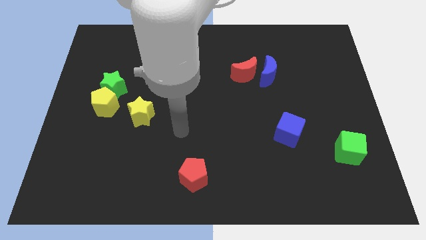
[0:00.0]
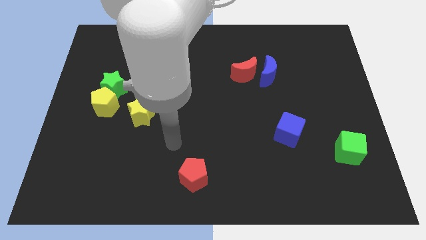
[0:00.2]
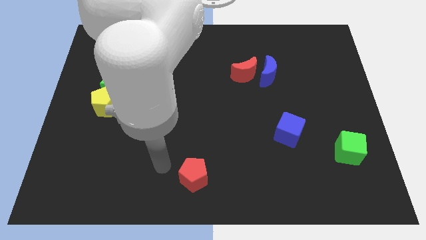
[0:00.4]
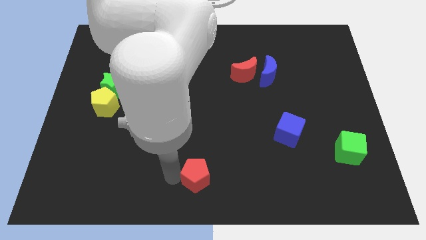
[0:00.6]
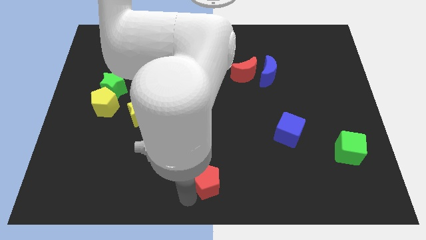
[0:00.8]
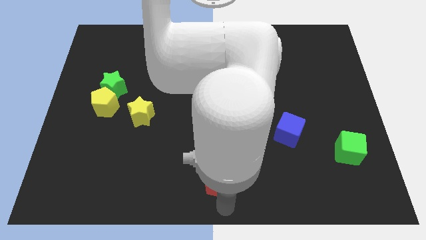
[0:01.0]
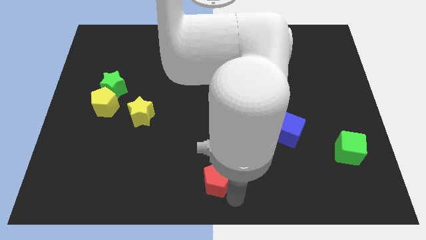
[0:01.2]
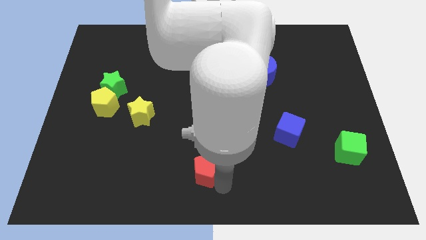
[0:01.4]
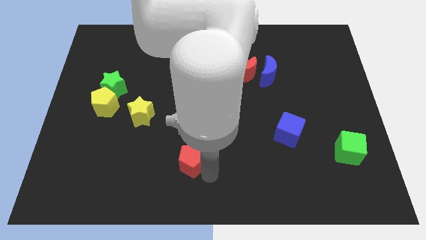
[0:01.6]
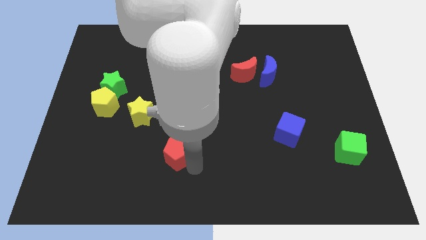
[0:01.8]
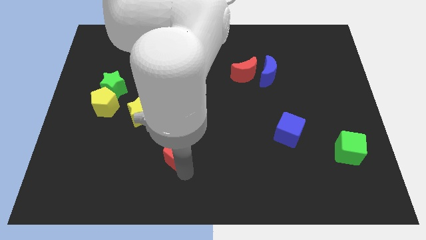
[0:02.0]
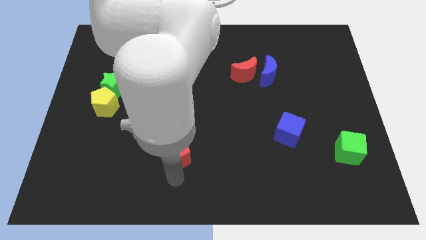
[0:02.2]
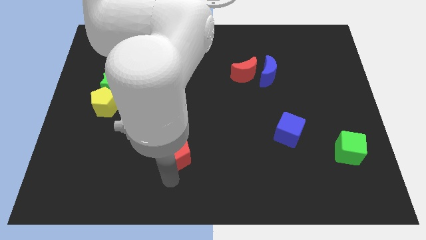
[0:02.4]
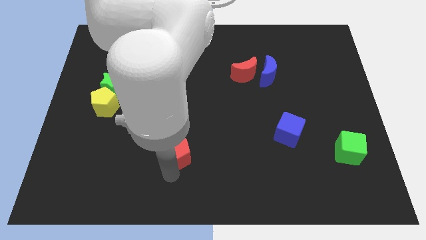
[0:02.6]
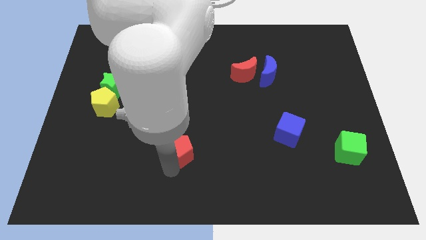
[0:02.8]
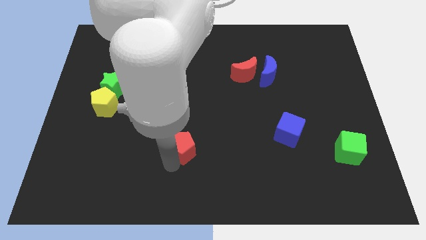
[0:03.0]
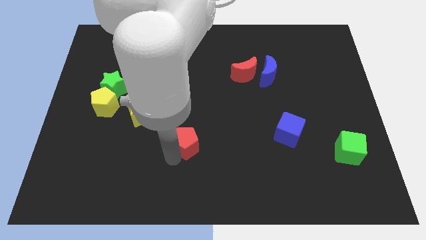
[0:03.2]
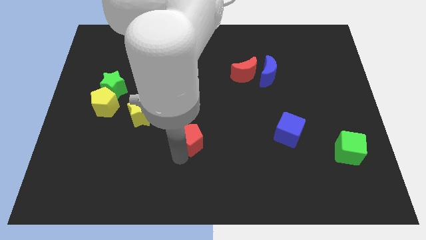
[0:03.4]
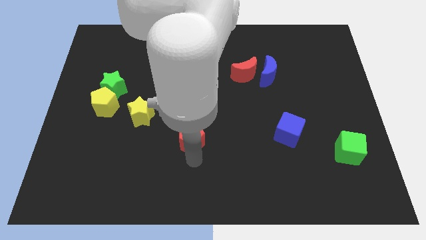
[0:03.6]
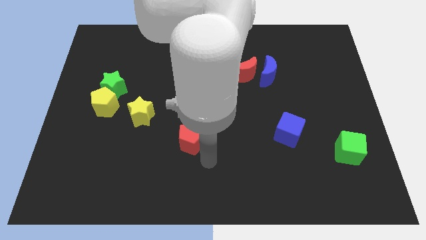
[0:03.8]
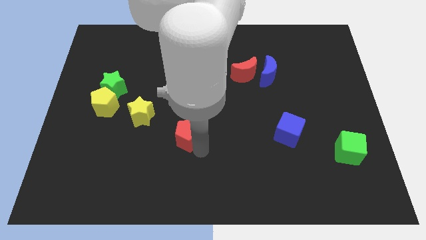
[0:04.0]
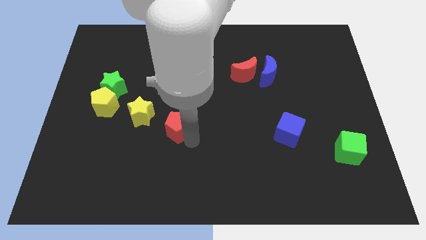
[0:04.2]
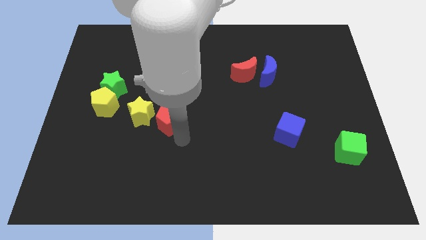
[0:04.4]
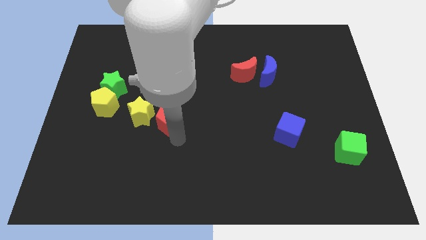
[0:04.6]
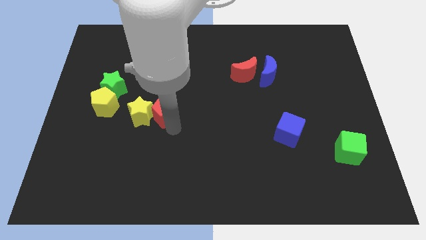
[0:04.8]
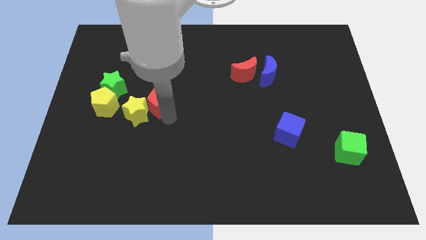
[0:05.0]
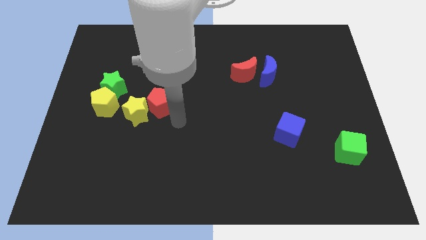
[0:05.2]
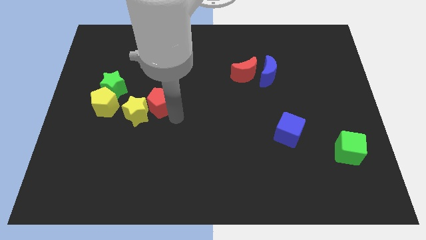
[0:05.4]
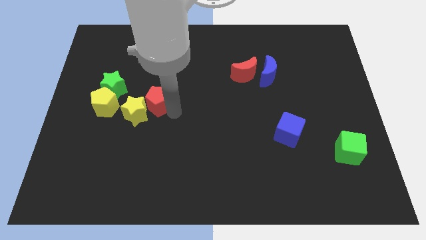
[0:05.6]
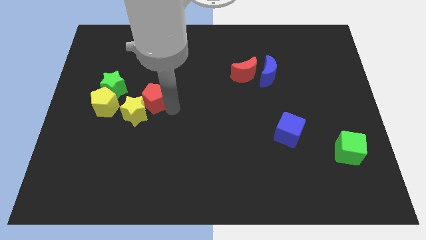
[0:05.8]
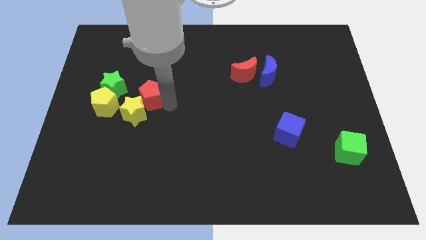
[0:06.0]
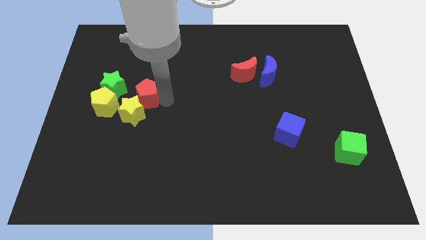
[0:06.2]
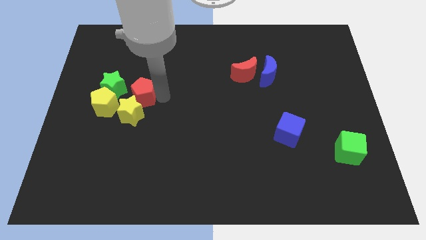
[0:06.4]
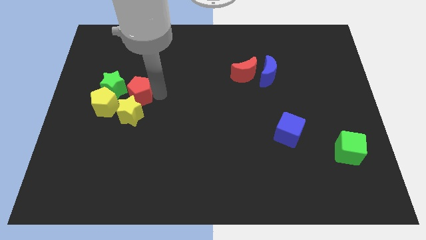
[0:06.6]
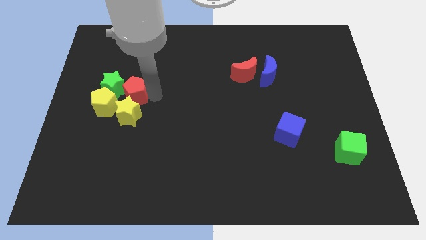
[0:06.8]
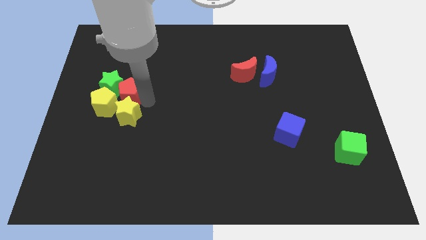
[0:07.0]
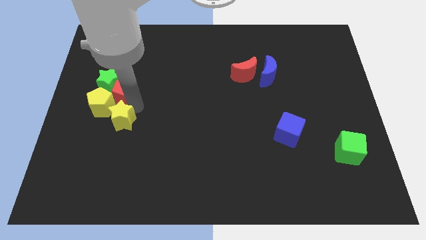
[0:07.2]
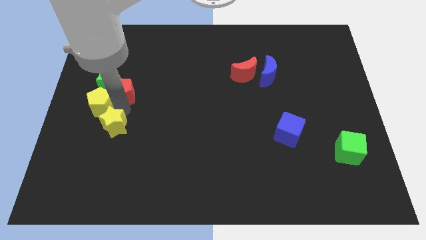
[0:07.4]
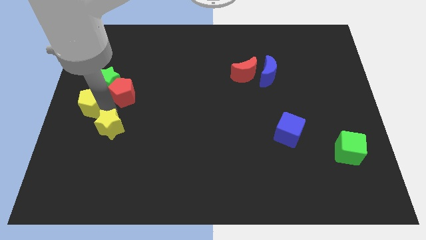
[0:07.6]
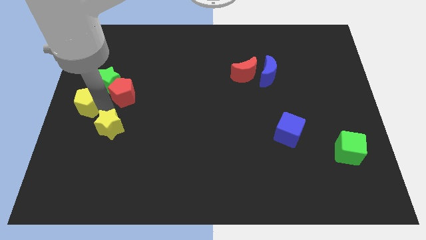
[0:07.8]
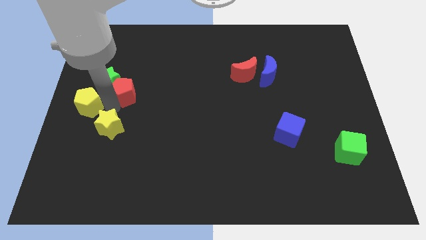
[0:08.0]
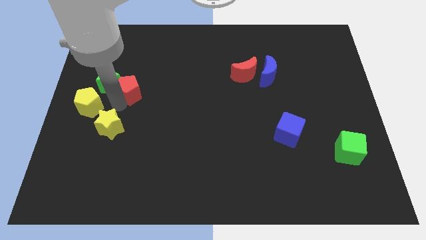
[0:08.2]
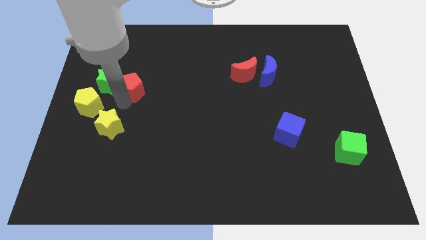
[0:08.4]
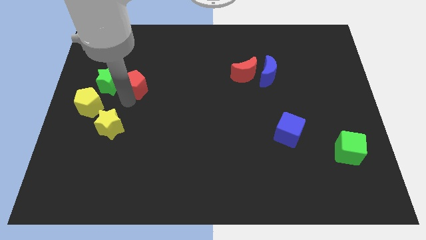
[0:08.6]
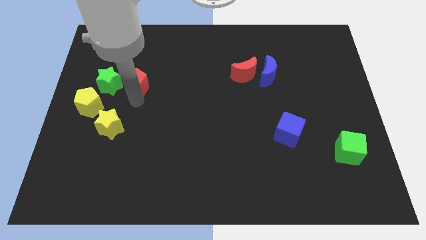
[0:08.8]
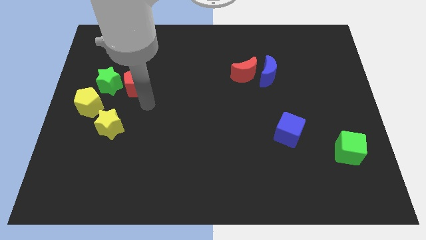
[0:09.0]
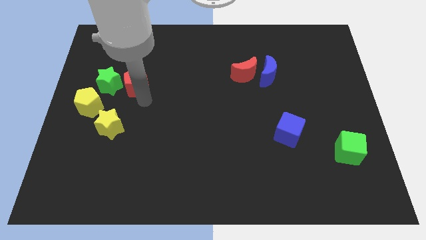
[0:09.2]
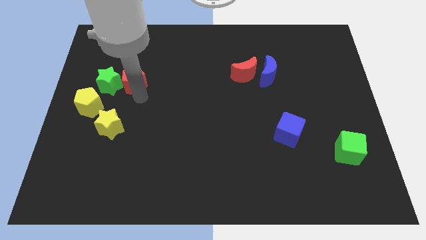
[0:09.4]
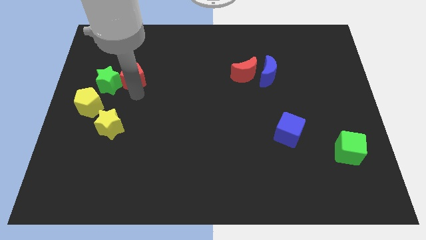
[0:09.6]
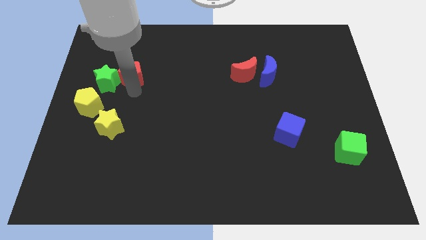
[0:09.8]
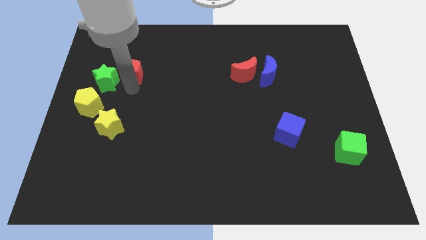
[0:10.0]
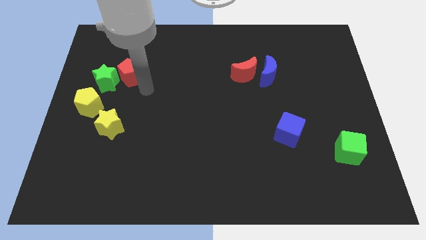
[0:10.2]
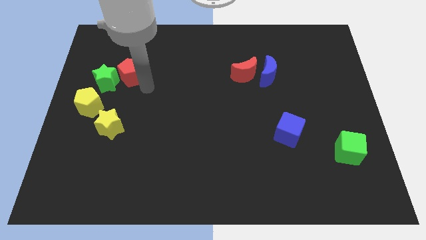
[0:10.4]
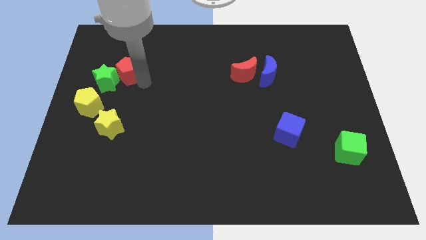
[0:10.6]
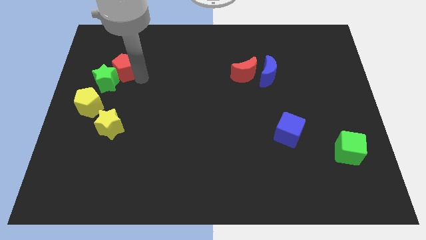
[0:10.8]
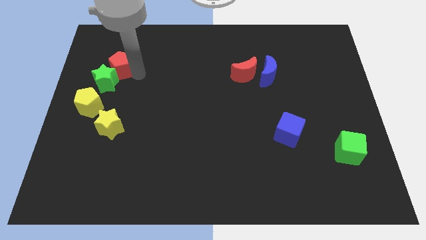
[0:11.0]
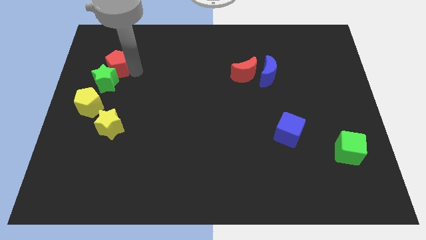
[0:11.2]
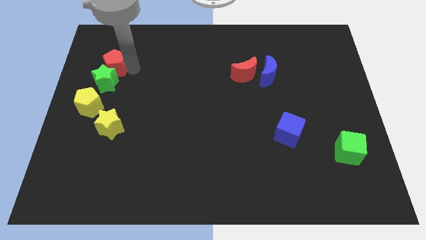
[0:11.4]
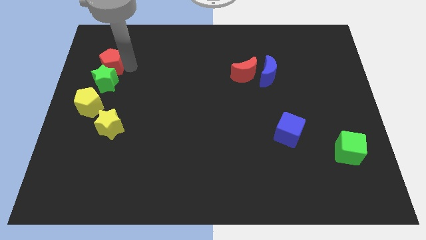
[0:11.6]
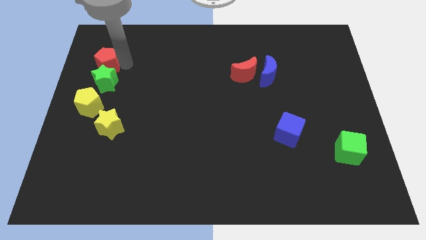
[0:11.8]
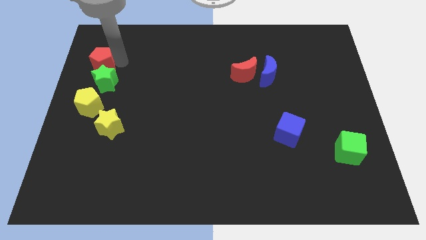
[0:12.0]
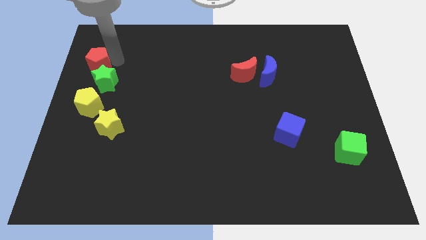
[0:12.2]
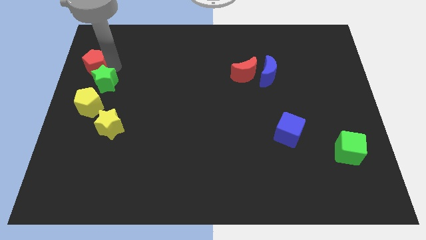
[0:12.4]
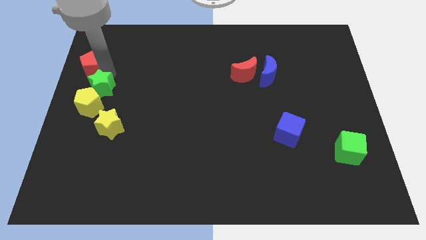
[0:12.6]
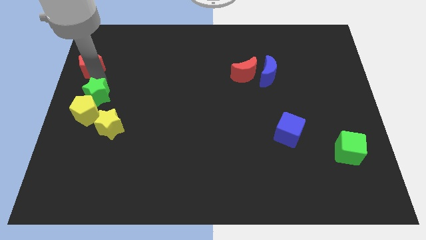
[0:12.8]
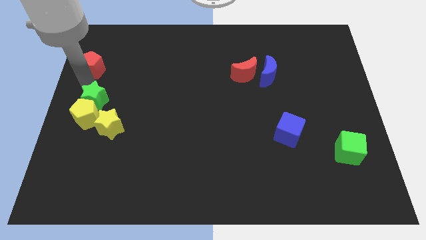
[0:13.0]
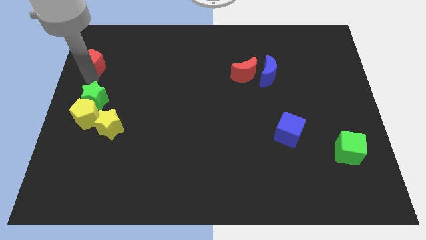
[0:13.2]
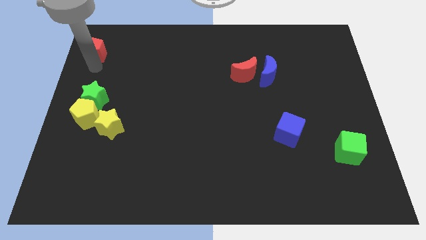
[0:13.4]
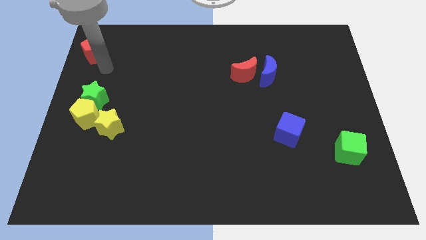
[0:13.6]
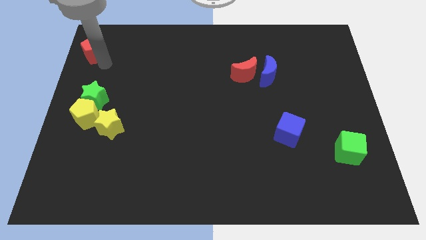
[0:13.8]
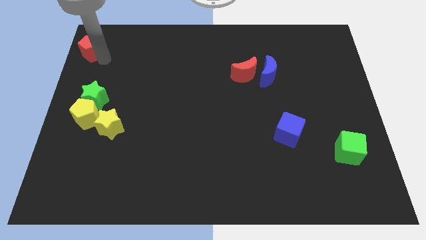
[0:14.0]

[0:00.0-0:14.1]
push the red pentagon to the top left
